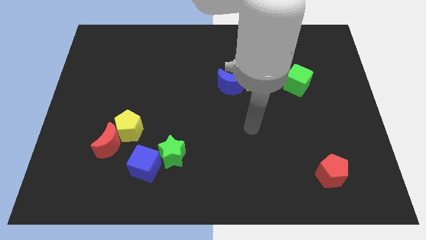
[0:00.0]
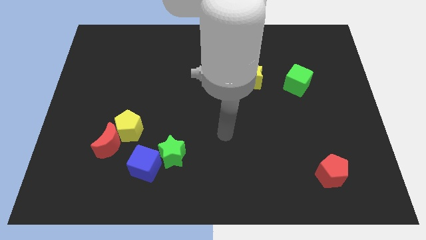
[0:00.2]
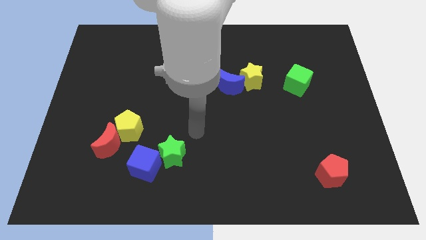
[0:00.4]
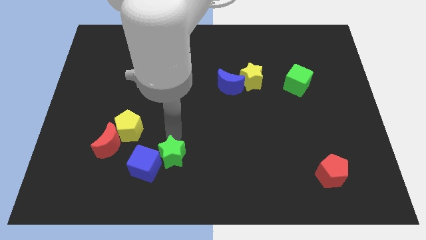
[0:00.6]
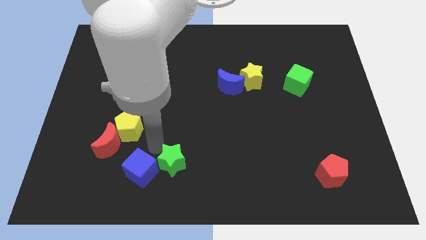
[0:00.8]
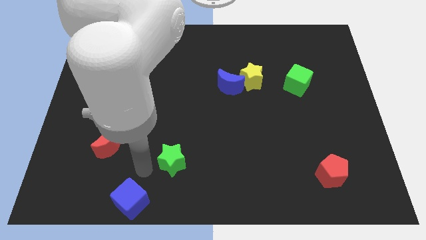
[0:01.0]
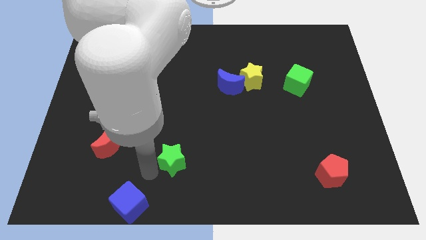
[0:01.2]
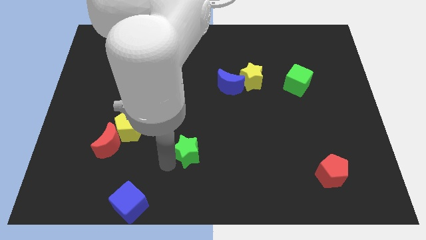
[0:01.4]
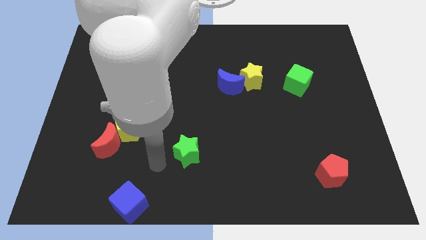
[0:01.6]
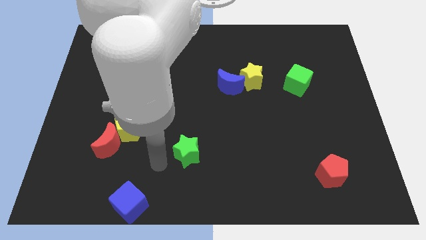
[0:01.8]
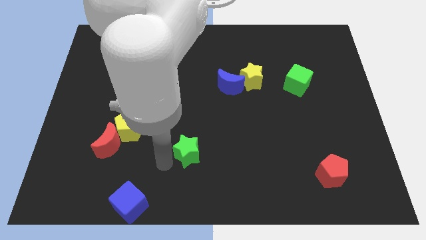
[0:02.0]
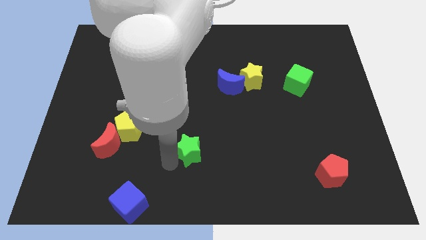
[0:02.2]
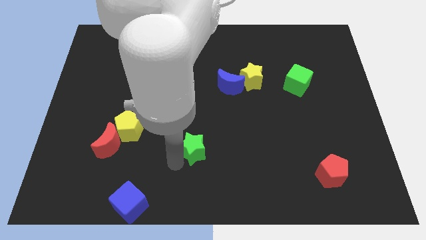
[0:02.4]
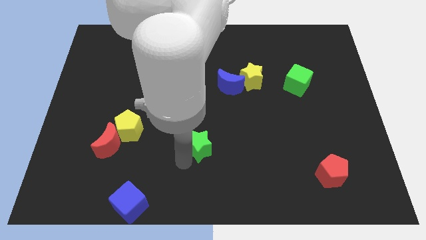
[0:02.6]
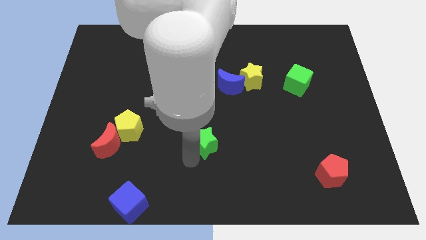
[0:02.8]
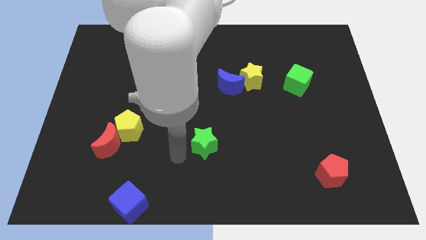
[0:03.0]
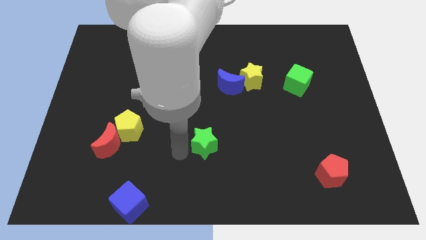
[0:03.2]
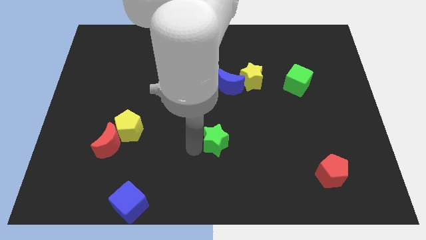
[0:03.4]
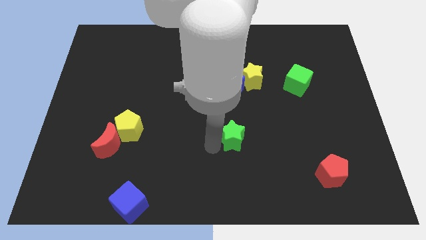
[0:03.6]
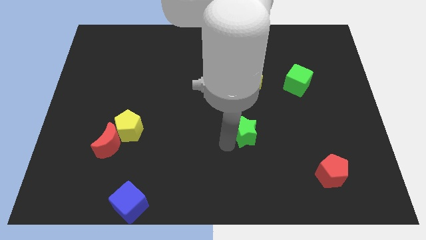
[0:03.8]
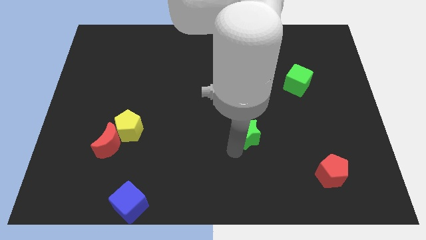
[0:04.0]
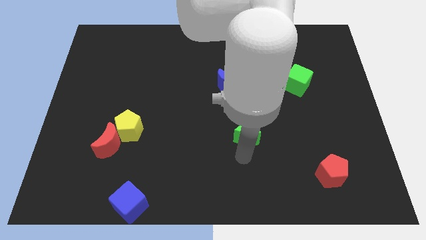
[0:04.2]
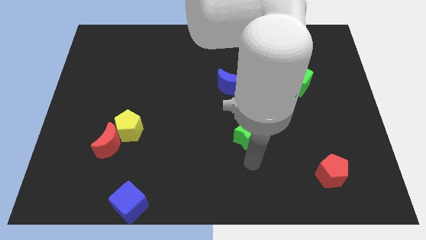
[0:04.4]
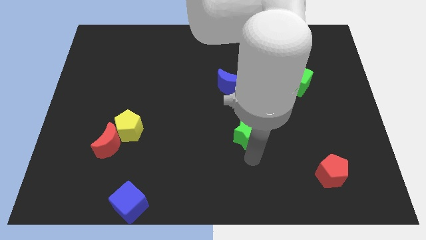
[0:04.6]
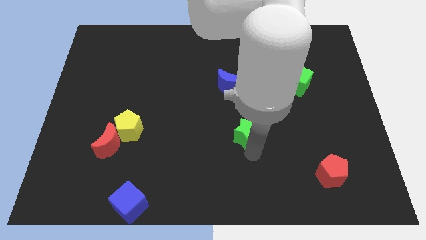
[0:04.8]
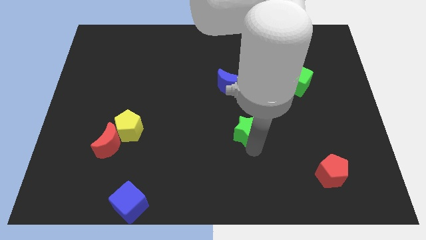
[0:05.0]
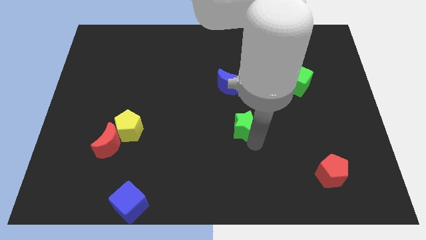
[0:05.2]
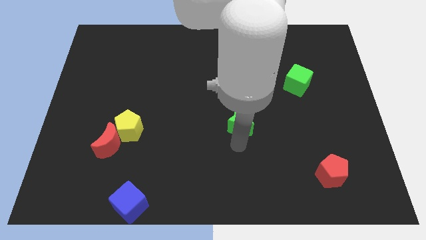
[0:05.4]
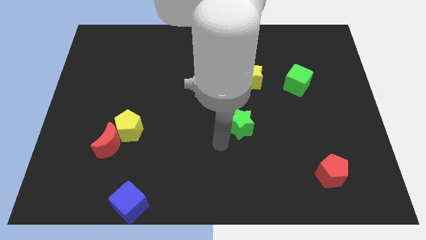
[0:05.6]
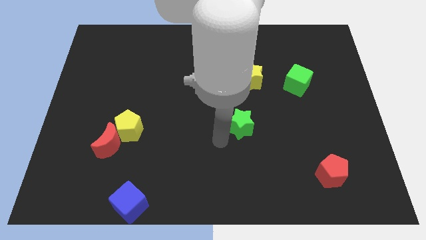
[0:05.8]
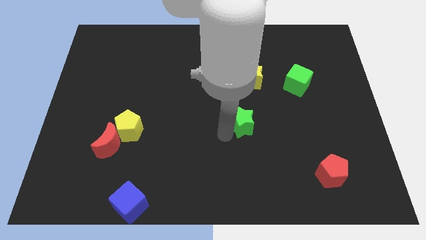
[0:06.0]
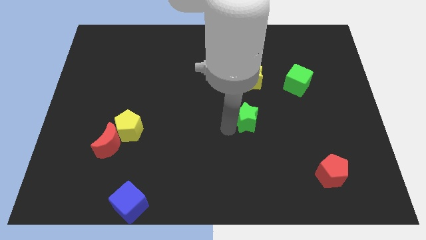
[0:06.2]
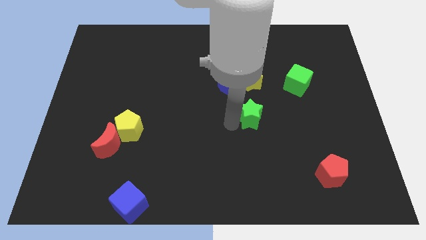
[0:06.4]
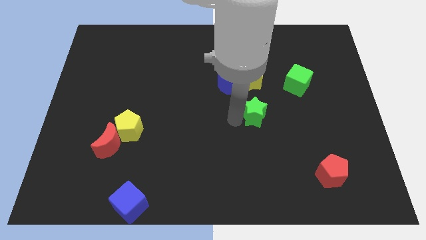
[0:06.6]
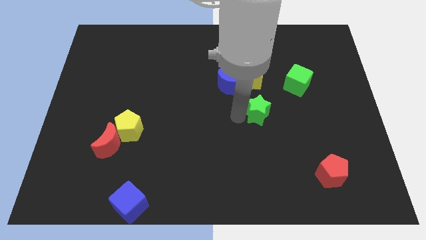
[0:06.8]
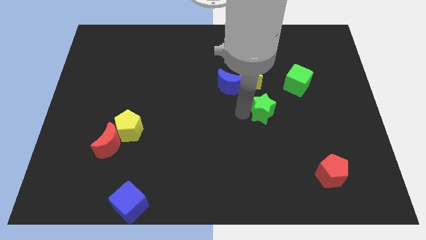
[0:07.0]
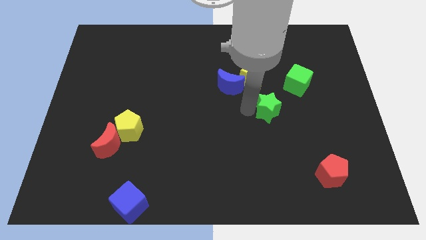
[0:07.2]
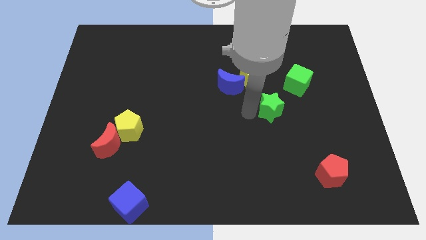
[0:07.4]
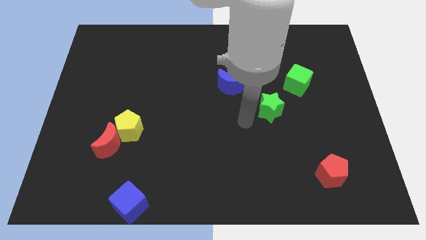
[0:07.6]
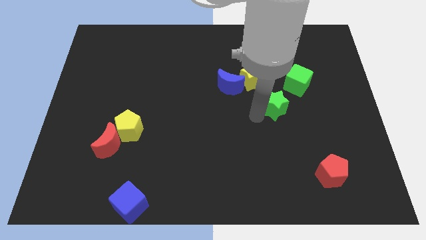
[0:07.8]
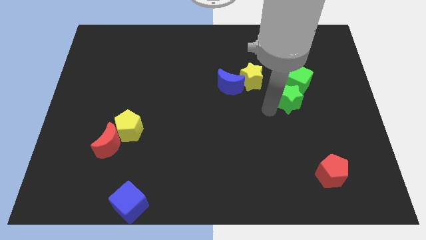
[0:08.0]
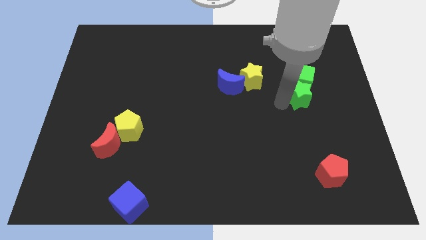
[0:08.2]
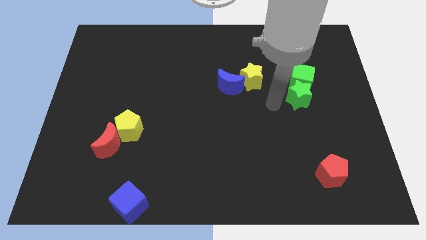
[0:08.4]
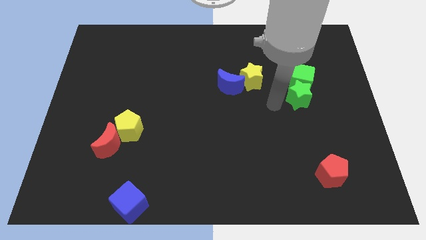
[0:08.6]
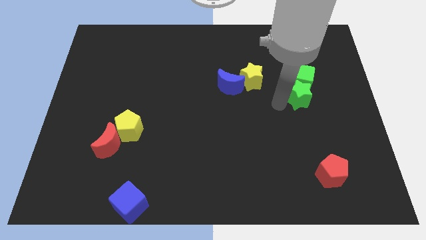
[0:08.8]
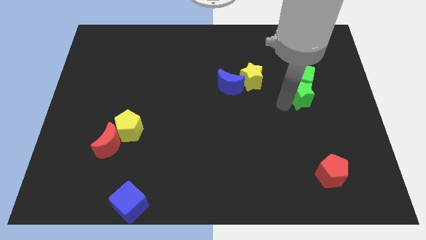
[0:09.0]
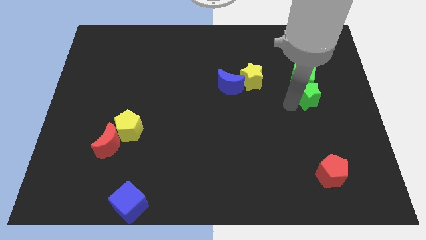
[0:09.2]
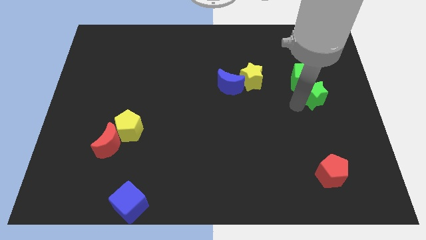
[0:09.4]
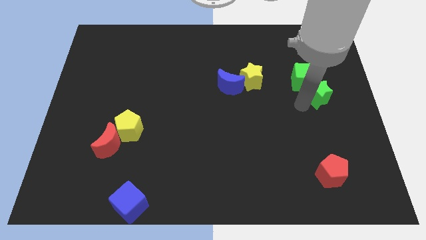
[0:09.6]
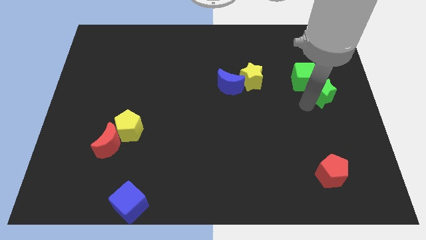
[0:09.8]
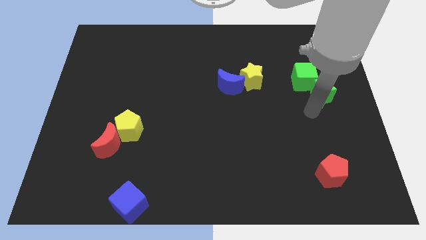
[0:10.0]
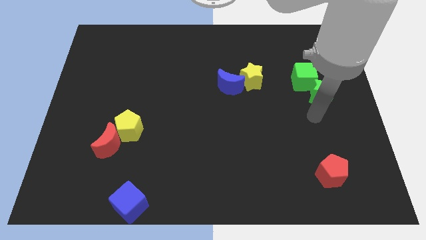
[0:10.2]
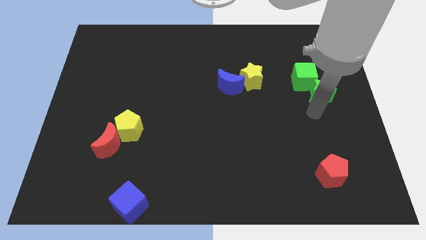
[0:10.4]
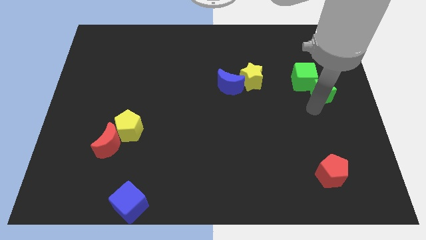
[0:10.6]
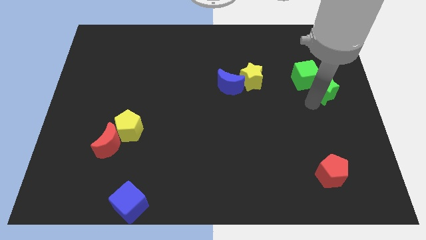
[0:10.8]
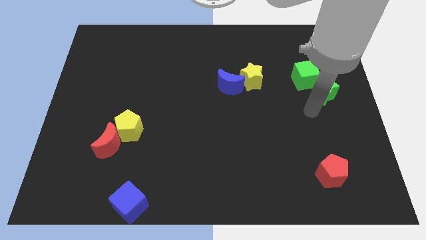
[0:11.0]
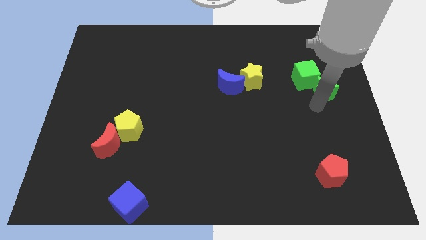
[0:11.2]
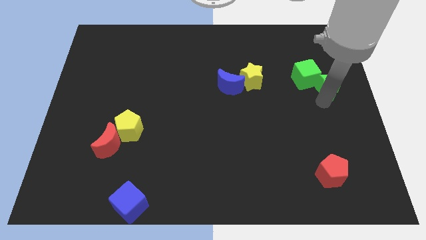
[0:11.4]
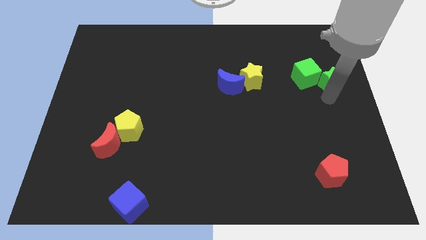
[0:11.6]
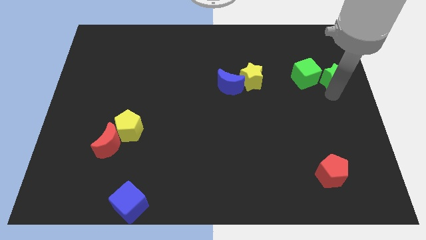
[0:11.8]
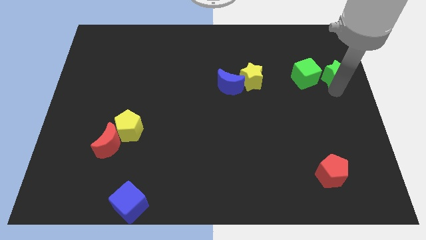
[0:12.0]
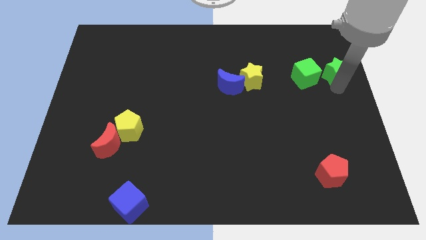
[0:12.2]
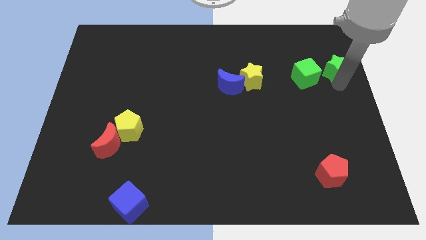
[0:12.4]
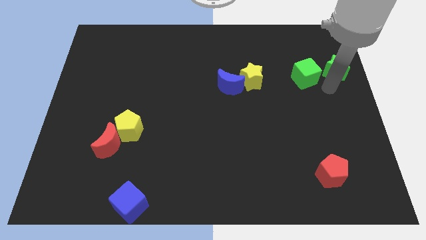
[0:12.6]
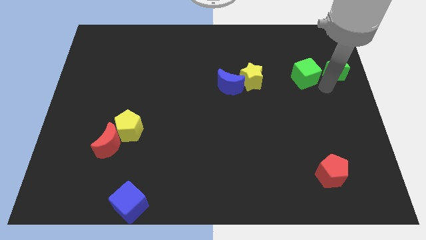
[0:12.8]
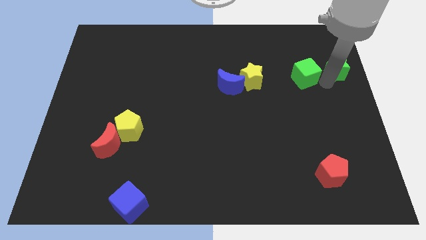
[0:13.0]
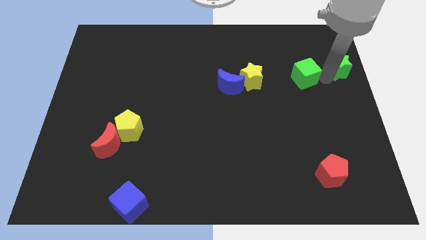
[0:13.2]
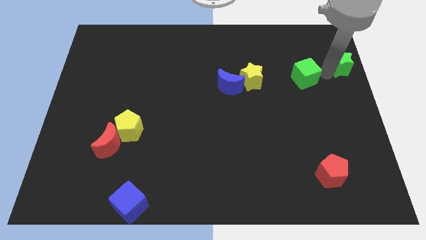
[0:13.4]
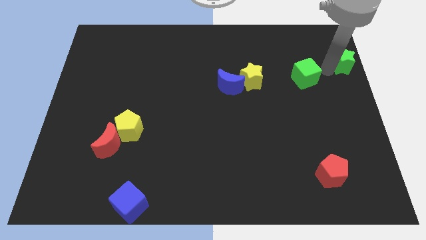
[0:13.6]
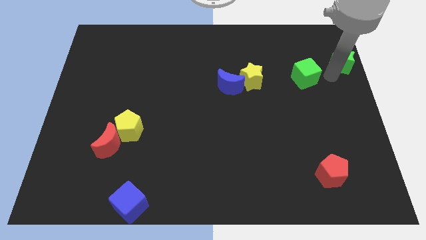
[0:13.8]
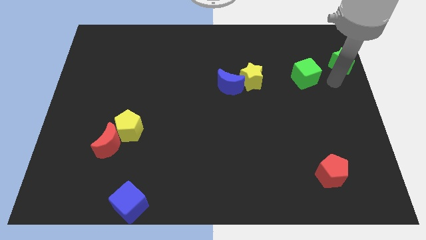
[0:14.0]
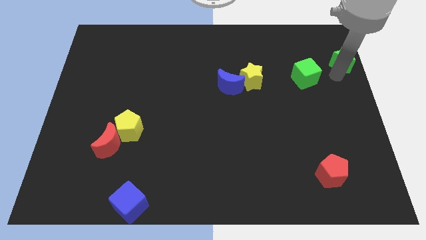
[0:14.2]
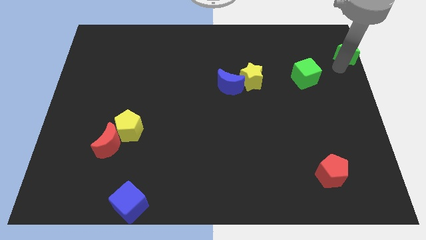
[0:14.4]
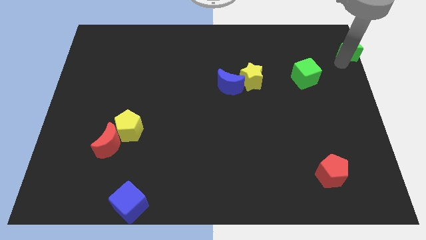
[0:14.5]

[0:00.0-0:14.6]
push the green star to the top right of the board

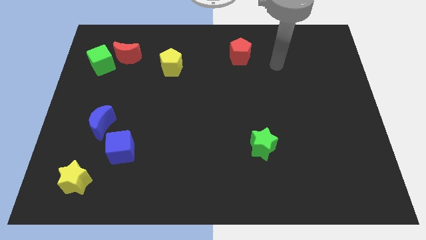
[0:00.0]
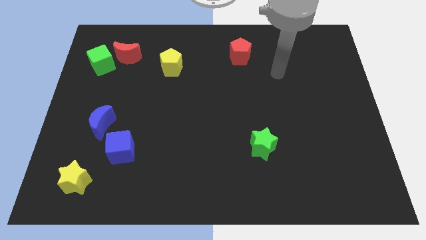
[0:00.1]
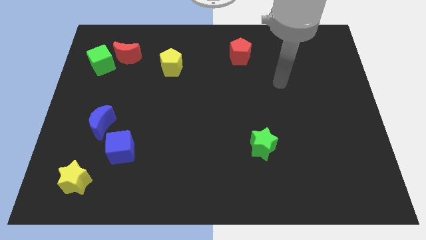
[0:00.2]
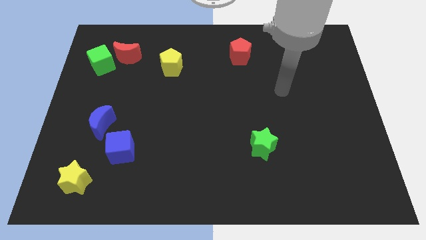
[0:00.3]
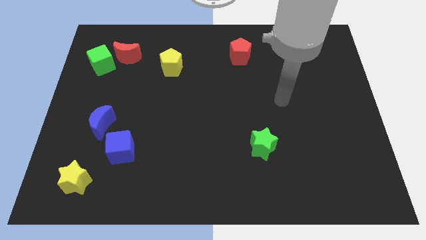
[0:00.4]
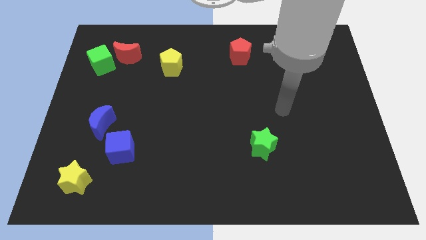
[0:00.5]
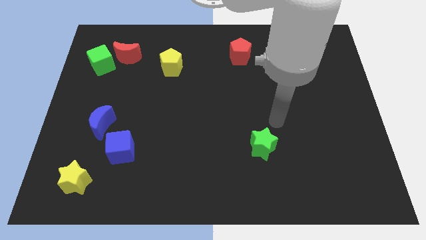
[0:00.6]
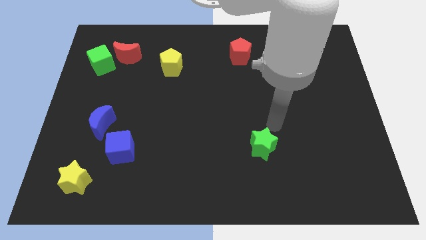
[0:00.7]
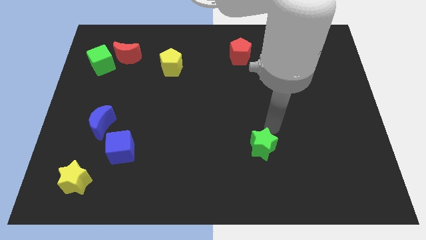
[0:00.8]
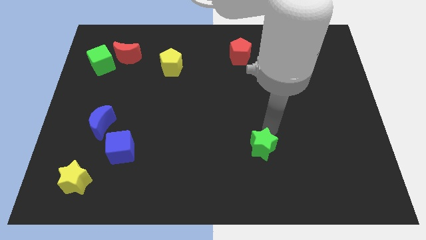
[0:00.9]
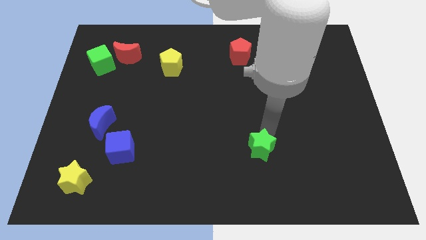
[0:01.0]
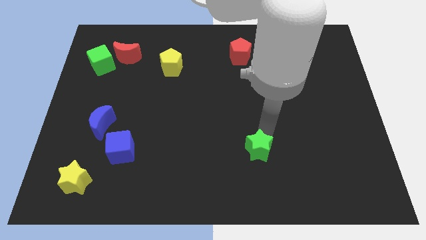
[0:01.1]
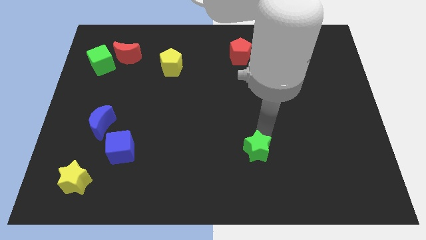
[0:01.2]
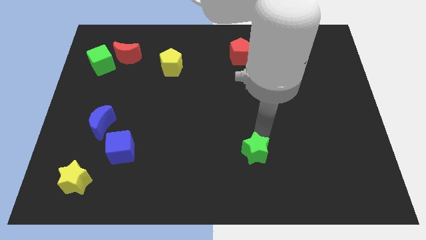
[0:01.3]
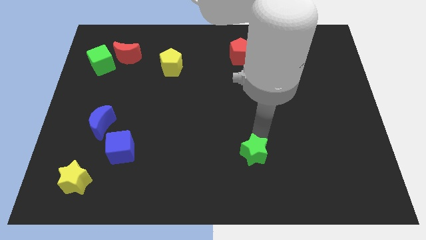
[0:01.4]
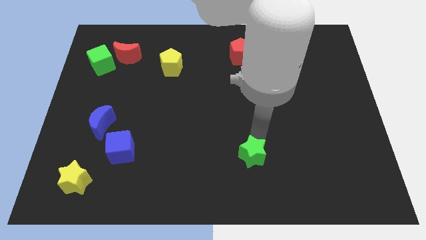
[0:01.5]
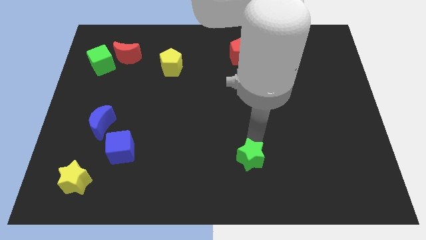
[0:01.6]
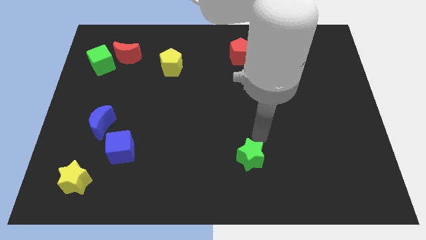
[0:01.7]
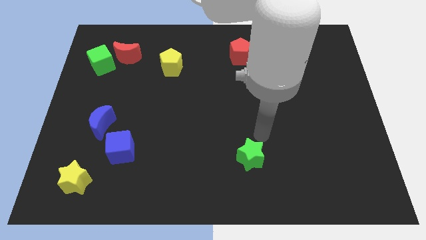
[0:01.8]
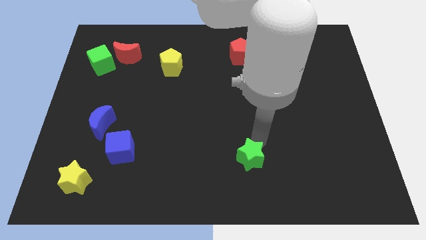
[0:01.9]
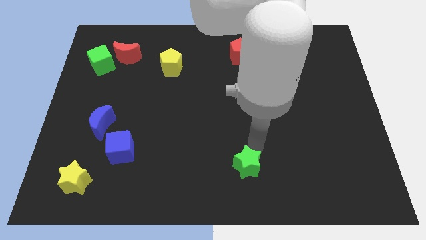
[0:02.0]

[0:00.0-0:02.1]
move the green star to the bottom side
